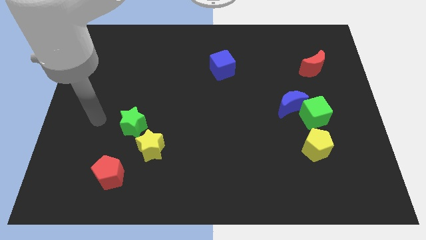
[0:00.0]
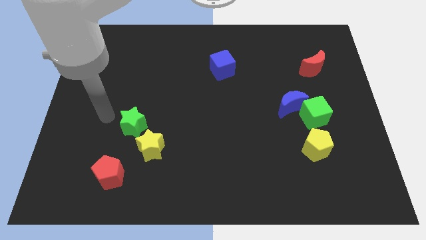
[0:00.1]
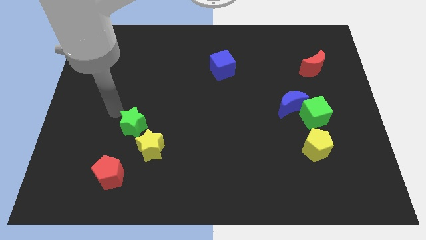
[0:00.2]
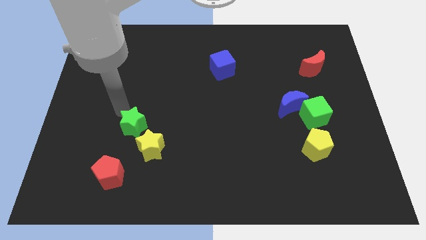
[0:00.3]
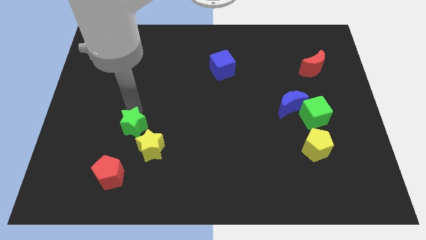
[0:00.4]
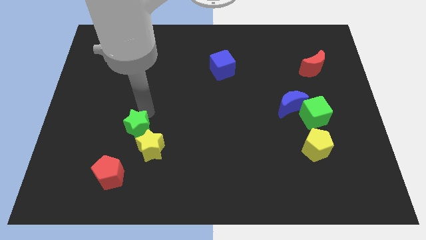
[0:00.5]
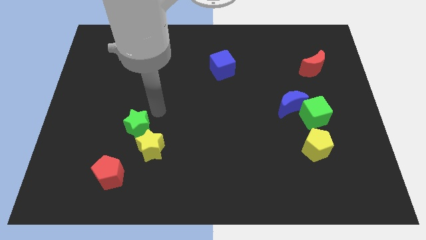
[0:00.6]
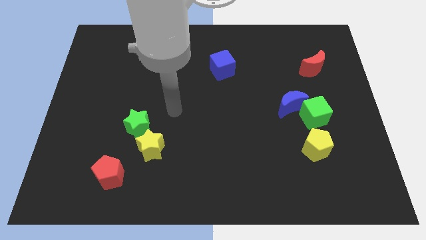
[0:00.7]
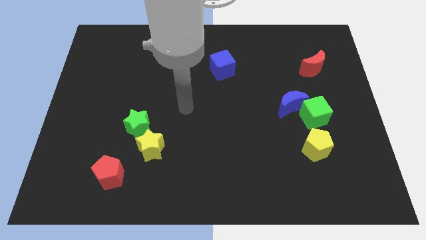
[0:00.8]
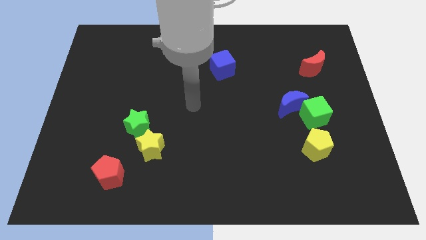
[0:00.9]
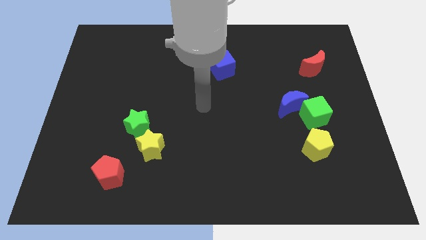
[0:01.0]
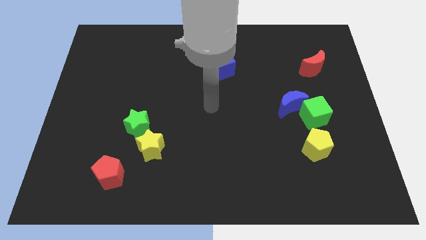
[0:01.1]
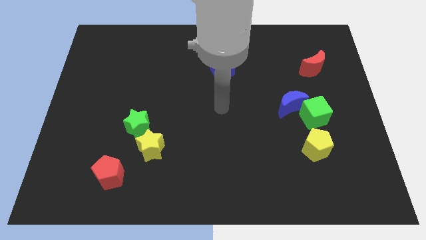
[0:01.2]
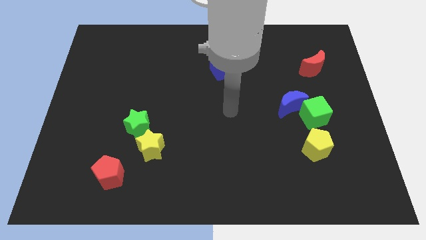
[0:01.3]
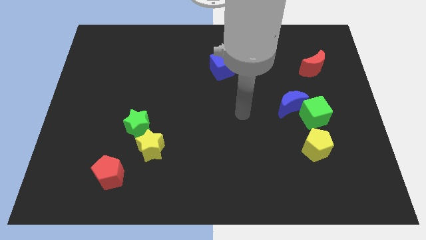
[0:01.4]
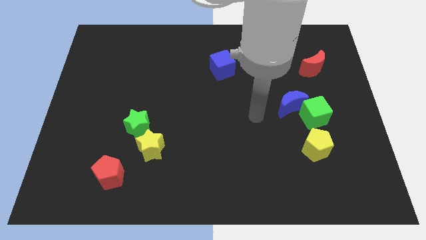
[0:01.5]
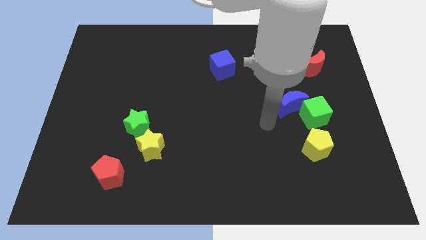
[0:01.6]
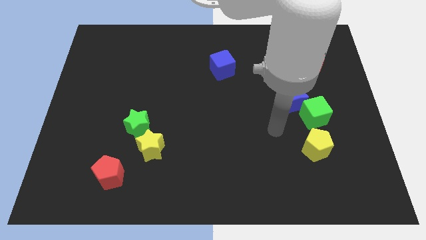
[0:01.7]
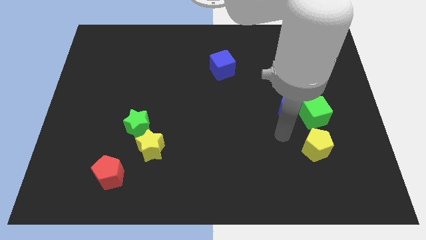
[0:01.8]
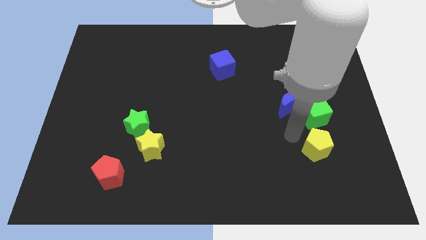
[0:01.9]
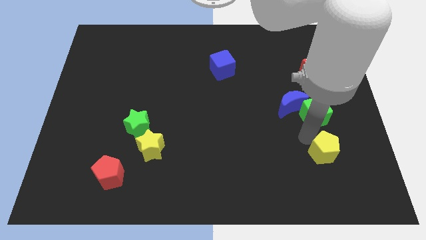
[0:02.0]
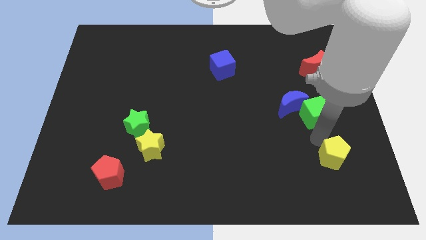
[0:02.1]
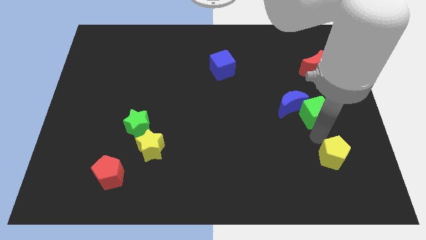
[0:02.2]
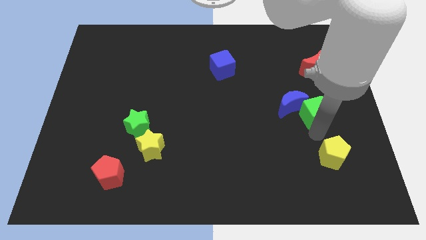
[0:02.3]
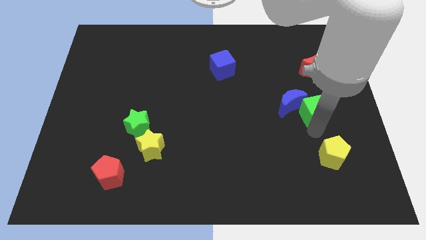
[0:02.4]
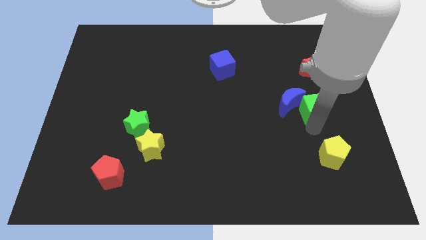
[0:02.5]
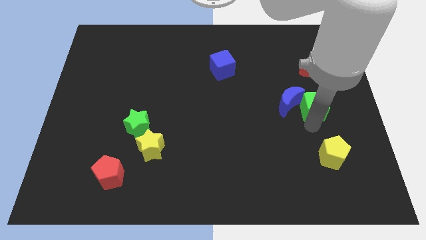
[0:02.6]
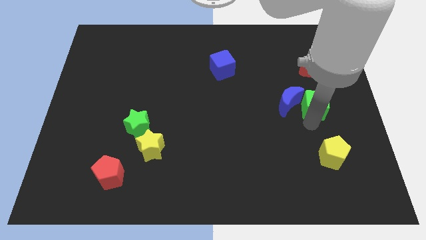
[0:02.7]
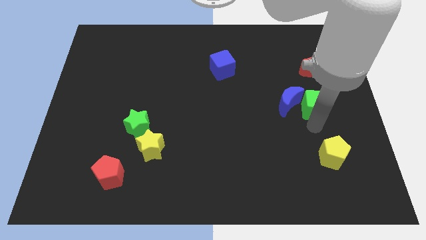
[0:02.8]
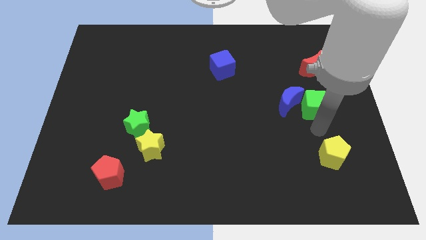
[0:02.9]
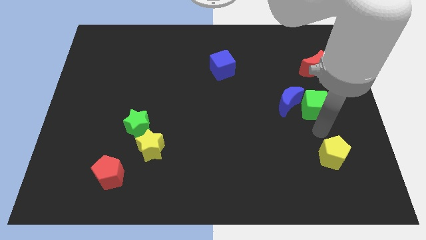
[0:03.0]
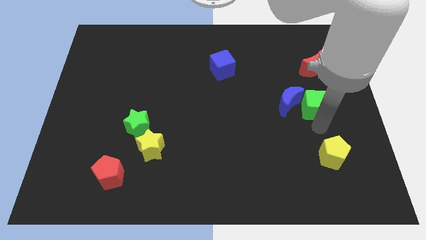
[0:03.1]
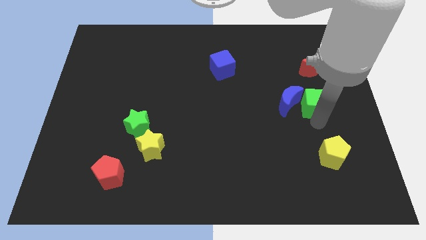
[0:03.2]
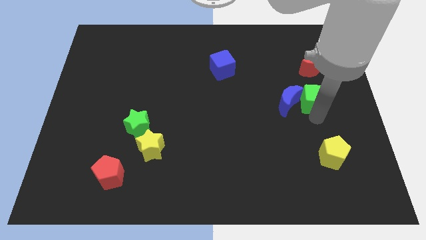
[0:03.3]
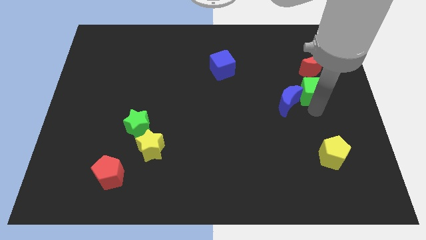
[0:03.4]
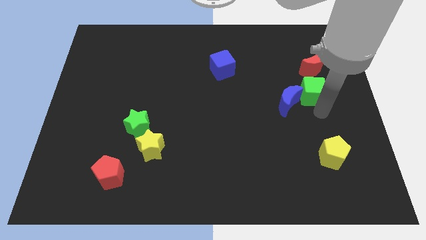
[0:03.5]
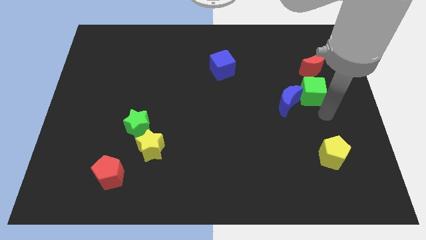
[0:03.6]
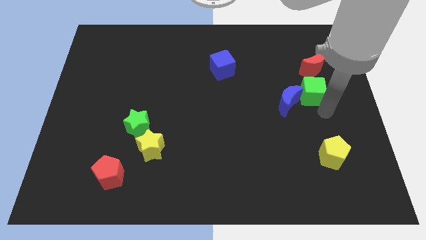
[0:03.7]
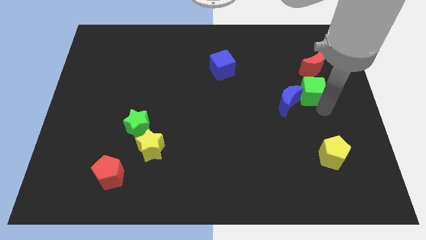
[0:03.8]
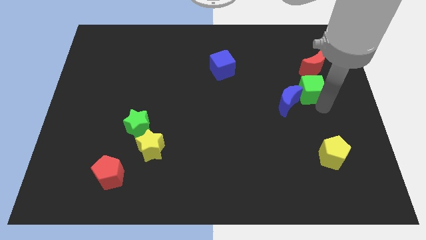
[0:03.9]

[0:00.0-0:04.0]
push the green cube up somewhat

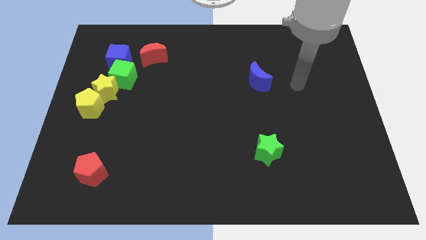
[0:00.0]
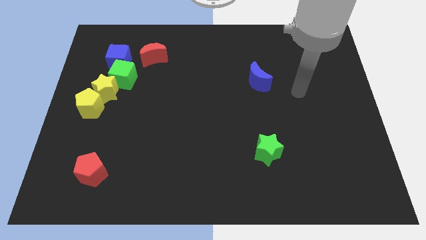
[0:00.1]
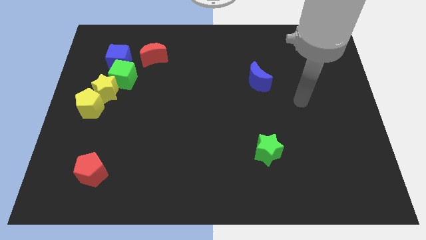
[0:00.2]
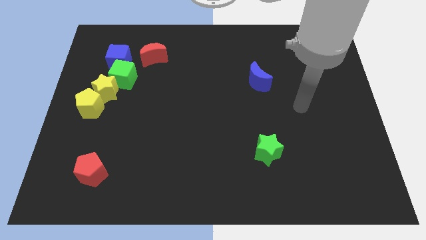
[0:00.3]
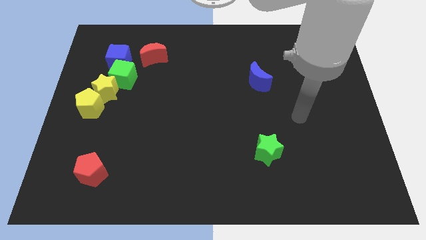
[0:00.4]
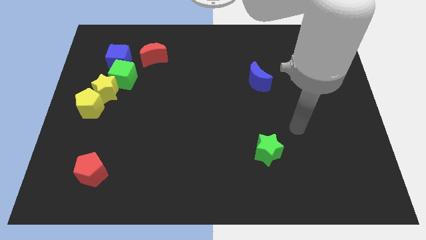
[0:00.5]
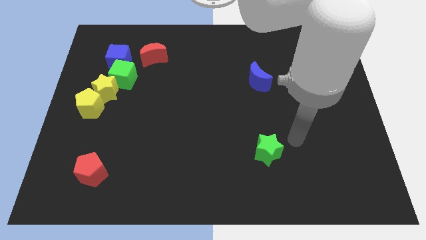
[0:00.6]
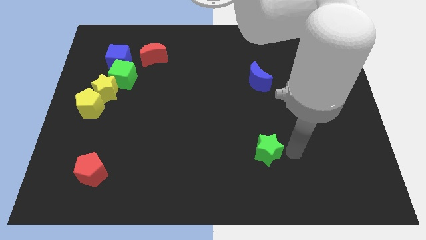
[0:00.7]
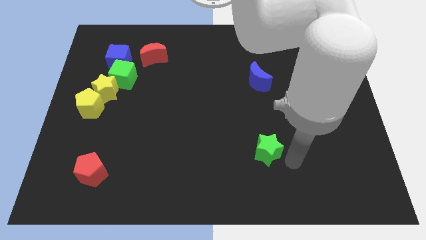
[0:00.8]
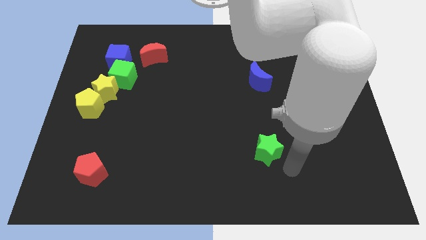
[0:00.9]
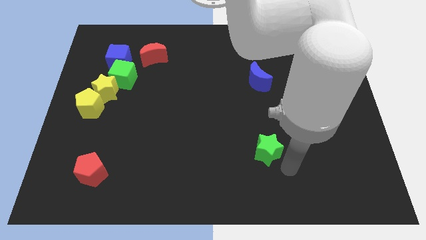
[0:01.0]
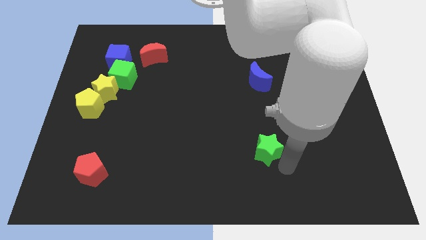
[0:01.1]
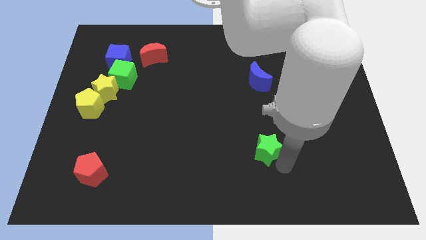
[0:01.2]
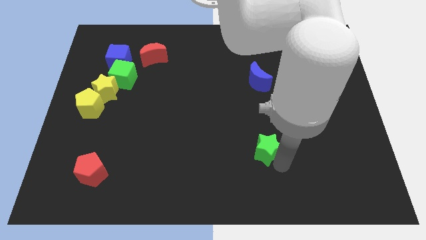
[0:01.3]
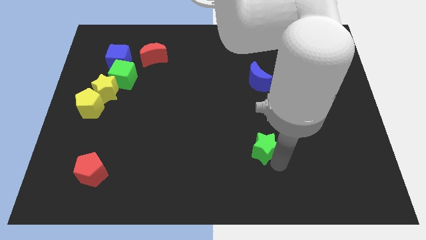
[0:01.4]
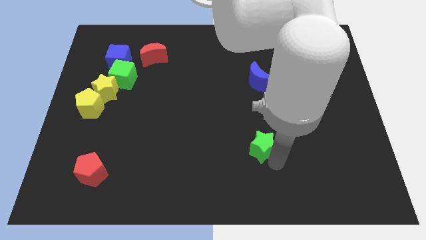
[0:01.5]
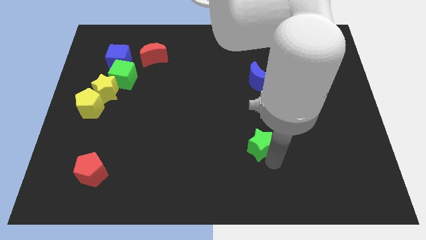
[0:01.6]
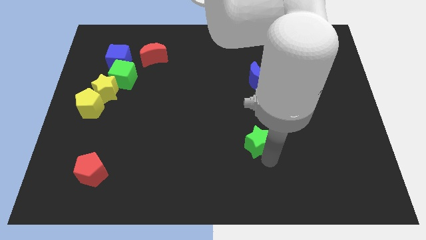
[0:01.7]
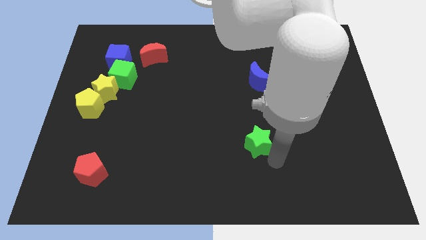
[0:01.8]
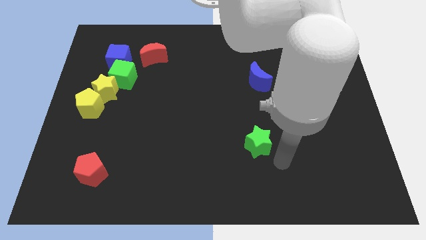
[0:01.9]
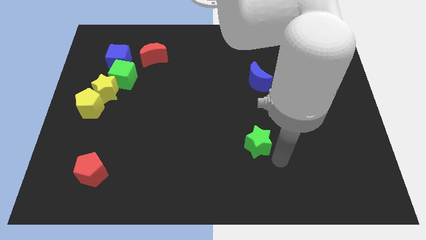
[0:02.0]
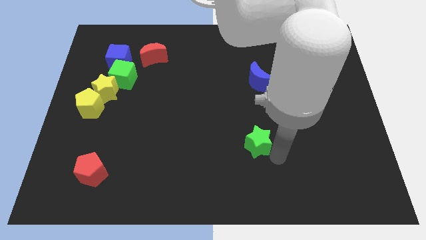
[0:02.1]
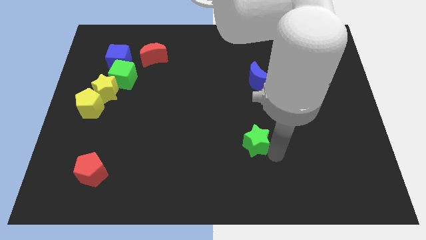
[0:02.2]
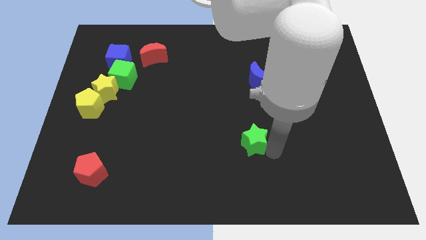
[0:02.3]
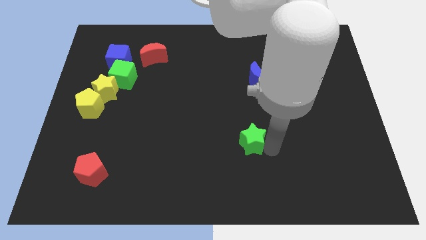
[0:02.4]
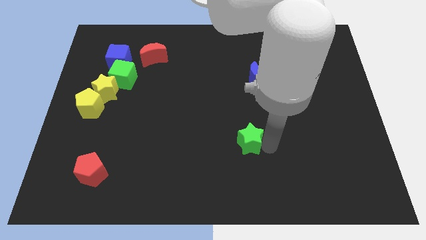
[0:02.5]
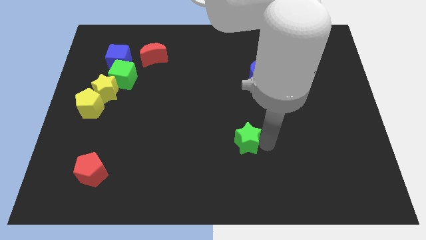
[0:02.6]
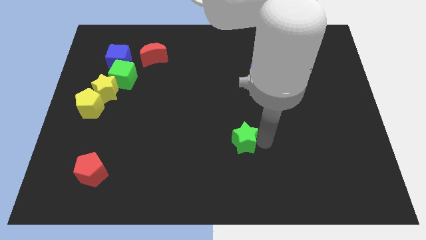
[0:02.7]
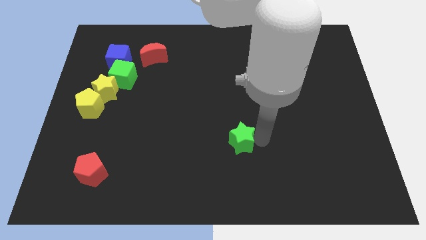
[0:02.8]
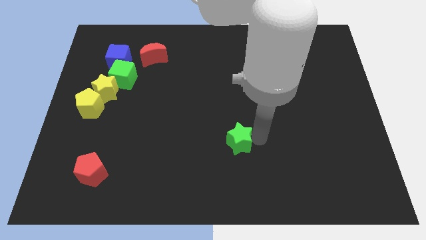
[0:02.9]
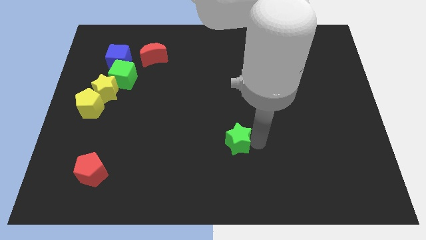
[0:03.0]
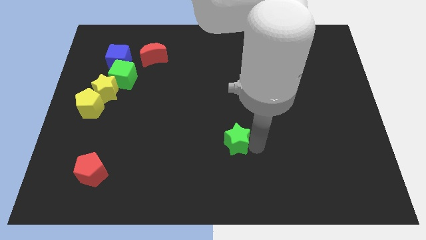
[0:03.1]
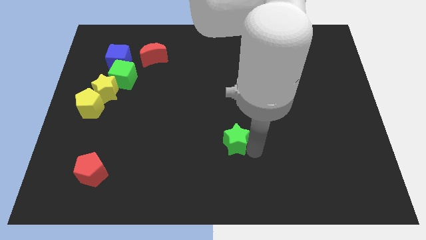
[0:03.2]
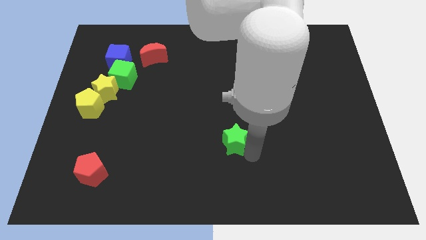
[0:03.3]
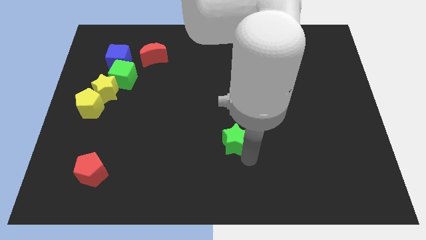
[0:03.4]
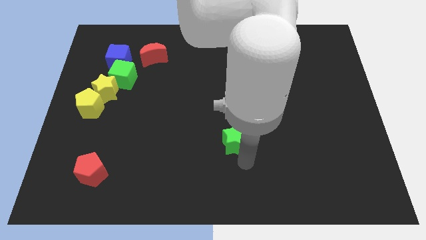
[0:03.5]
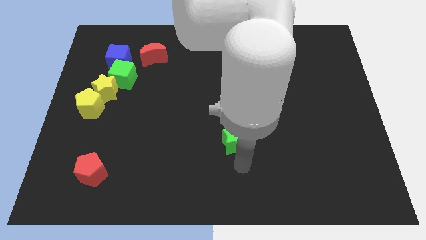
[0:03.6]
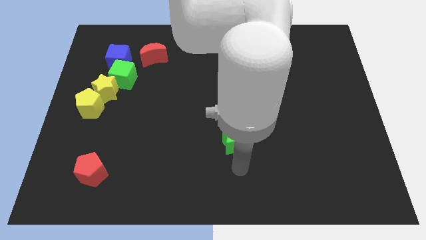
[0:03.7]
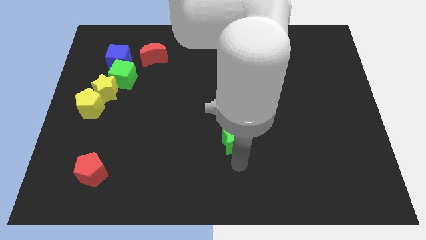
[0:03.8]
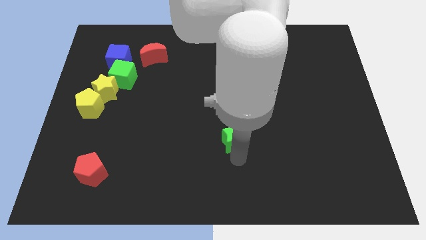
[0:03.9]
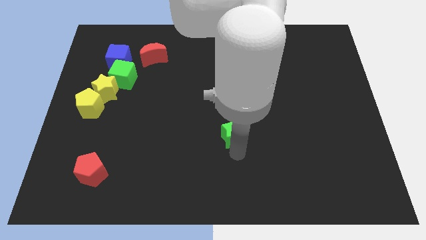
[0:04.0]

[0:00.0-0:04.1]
move the green star up and to the left a little
